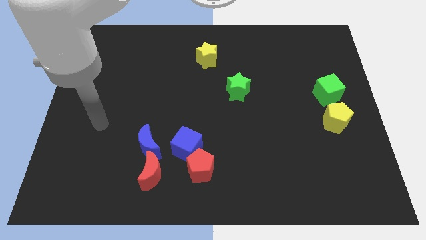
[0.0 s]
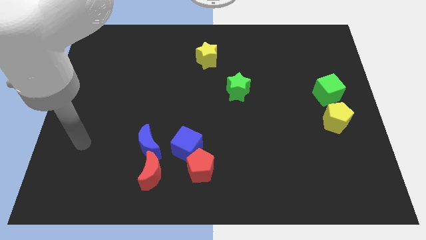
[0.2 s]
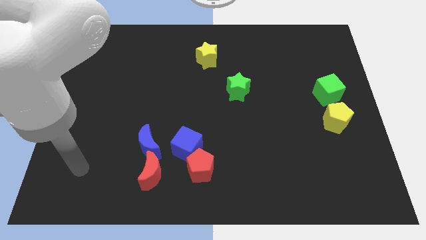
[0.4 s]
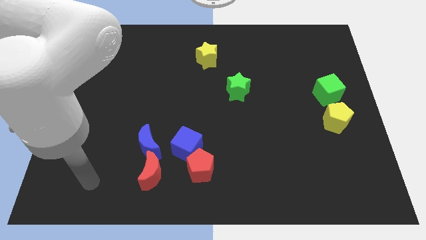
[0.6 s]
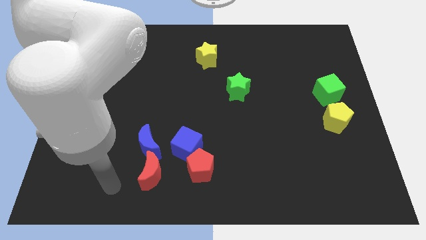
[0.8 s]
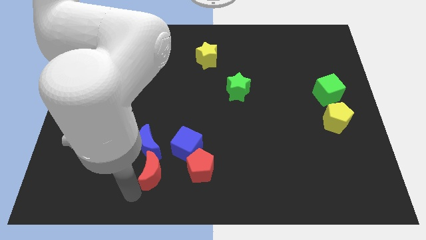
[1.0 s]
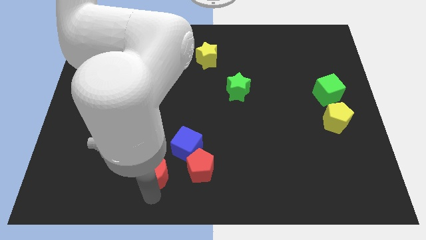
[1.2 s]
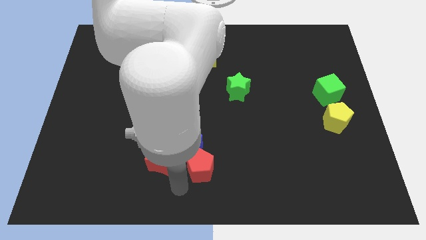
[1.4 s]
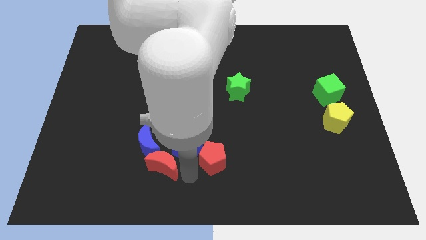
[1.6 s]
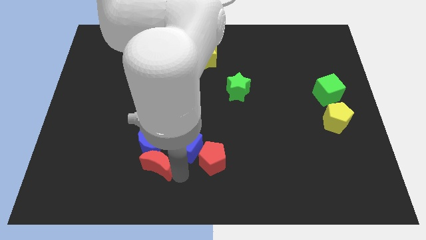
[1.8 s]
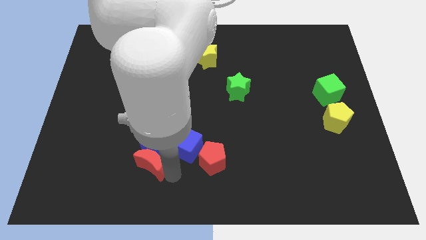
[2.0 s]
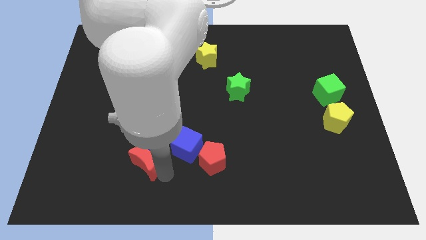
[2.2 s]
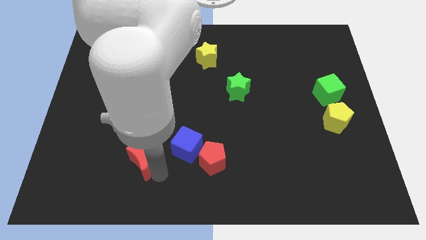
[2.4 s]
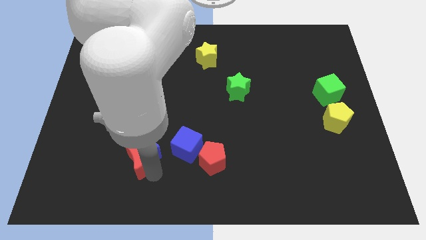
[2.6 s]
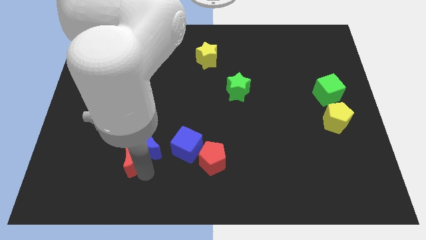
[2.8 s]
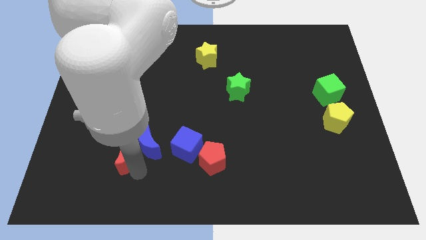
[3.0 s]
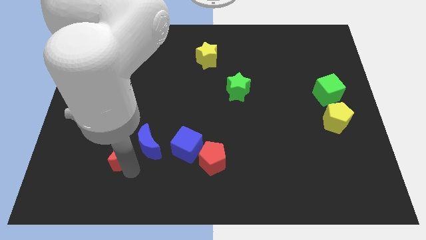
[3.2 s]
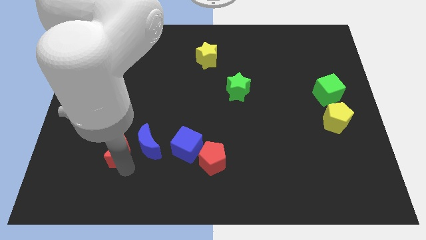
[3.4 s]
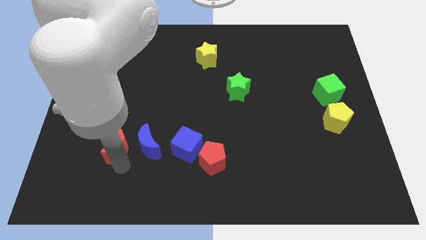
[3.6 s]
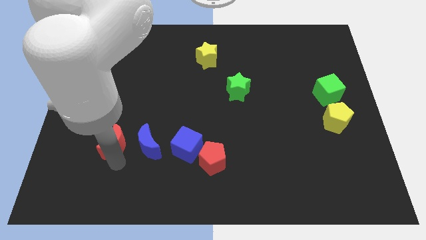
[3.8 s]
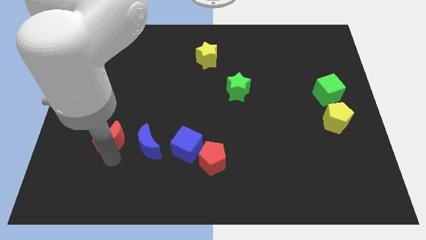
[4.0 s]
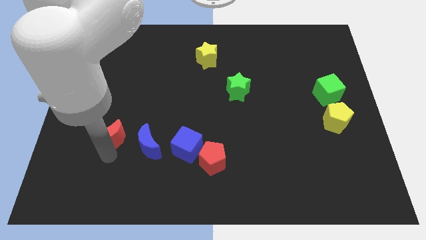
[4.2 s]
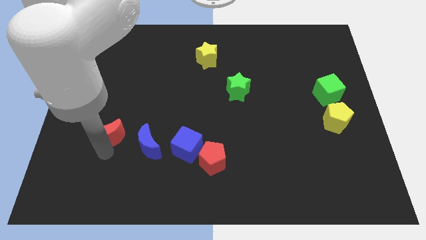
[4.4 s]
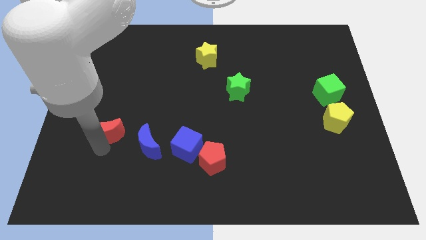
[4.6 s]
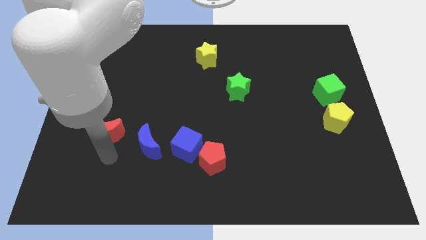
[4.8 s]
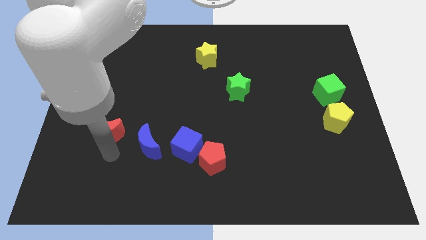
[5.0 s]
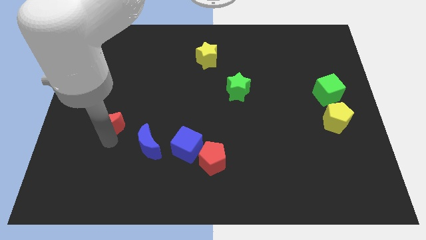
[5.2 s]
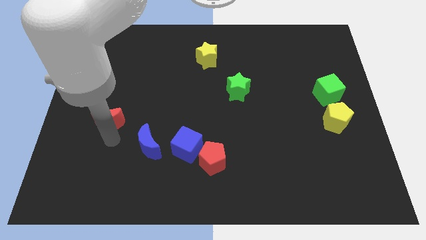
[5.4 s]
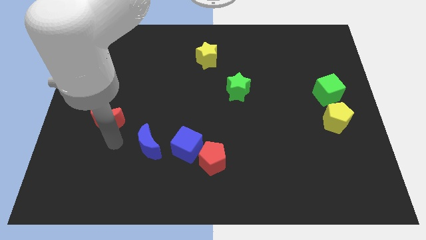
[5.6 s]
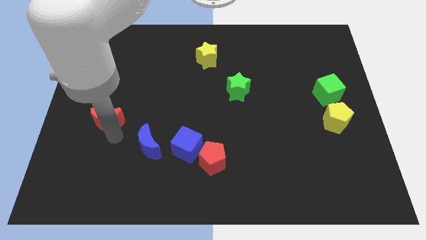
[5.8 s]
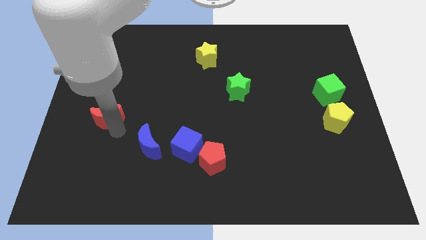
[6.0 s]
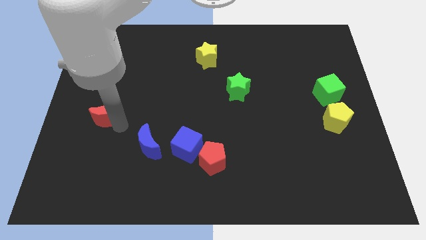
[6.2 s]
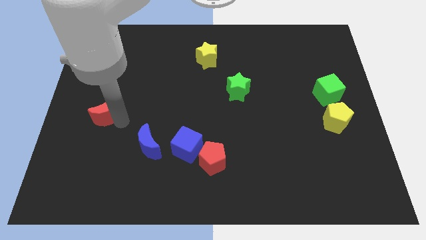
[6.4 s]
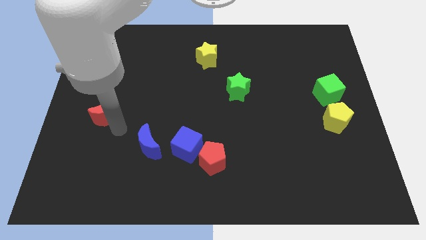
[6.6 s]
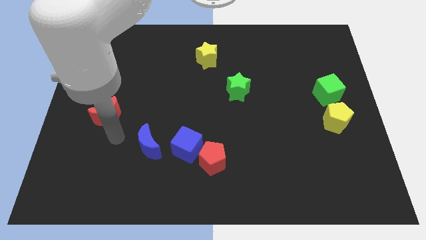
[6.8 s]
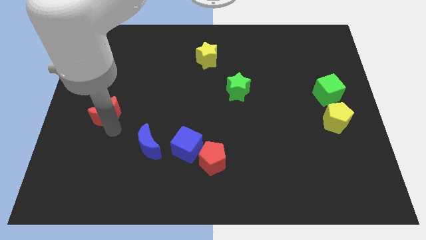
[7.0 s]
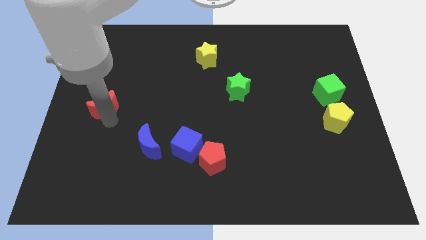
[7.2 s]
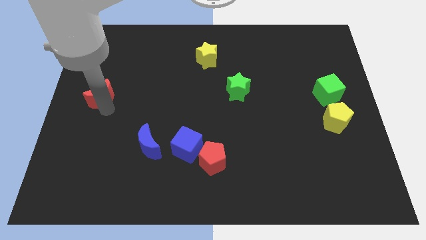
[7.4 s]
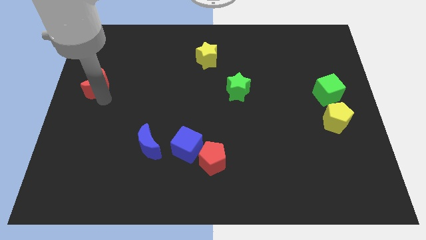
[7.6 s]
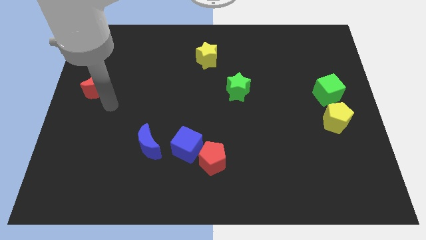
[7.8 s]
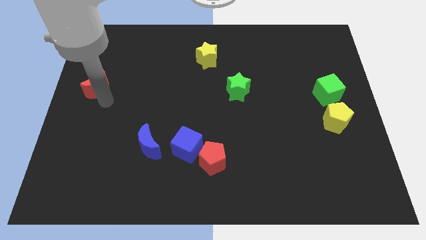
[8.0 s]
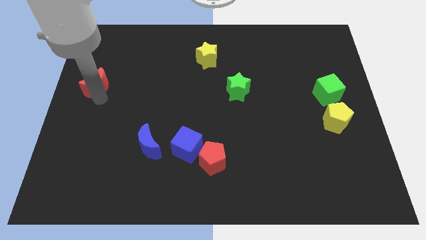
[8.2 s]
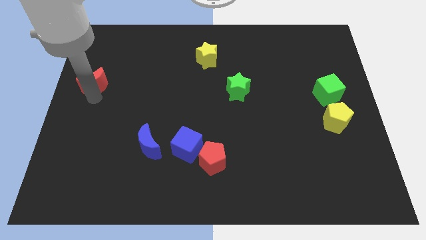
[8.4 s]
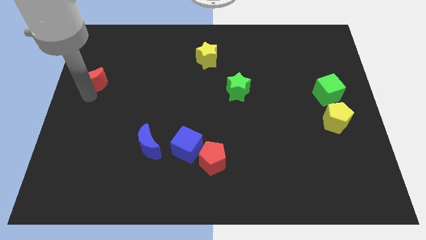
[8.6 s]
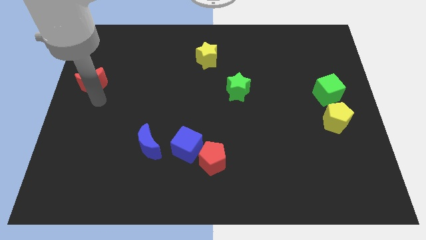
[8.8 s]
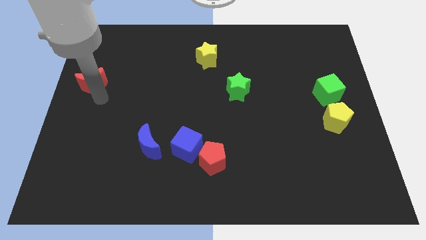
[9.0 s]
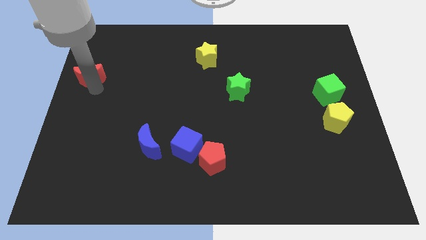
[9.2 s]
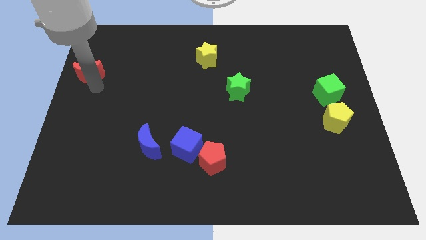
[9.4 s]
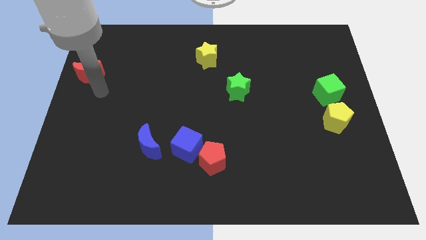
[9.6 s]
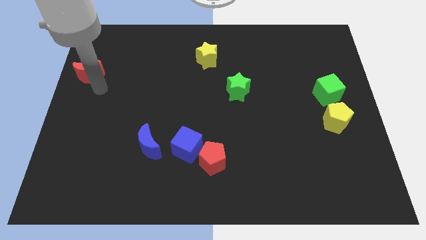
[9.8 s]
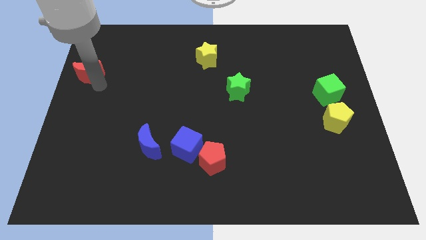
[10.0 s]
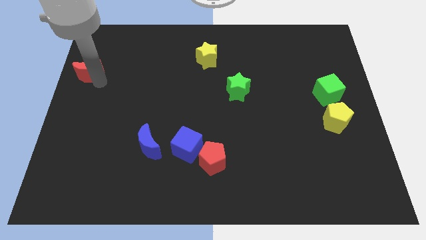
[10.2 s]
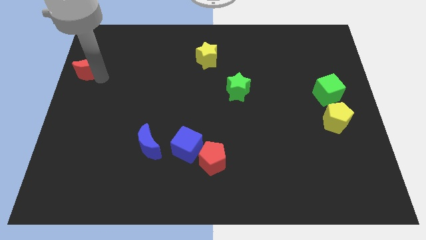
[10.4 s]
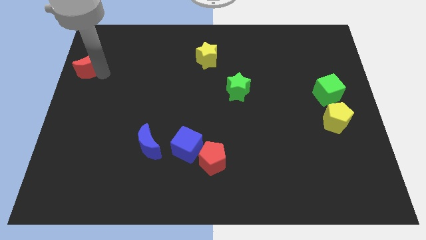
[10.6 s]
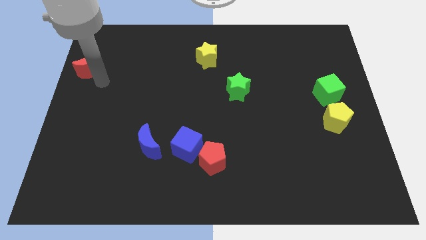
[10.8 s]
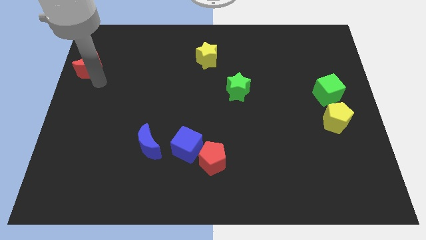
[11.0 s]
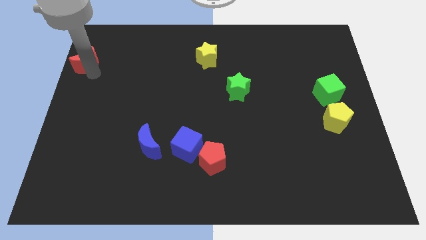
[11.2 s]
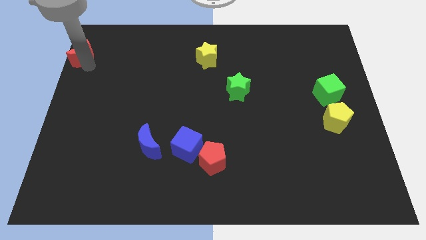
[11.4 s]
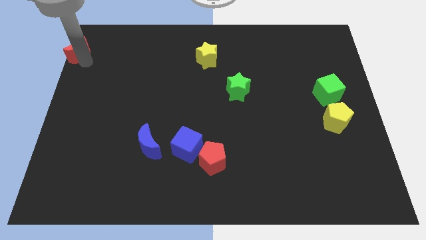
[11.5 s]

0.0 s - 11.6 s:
slide the red moon to the top left of the board

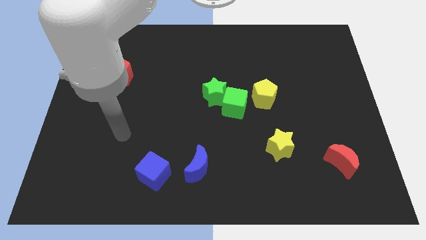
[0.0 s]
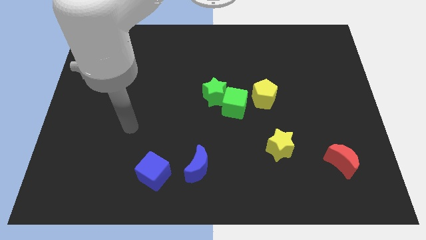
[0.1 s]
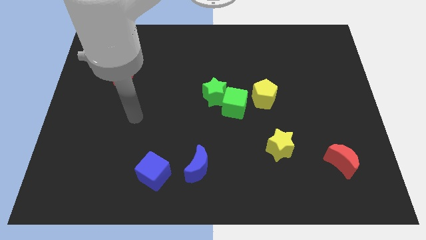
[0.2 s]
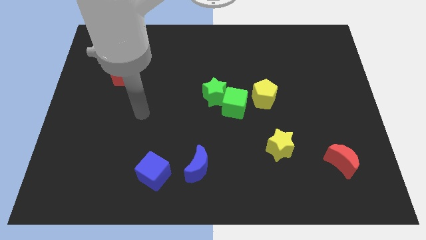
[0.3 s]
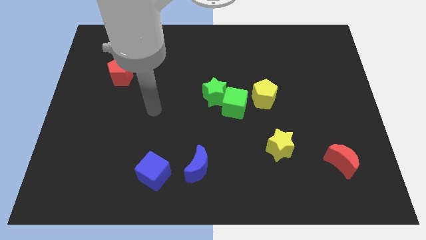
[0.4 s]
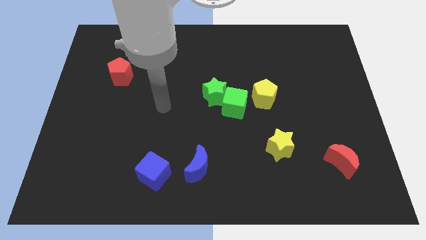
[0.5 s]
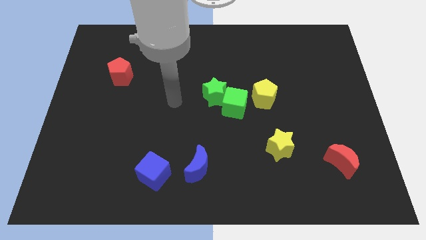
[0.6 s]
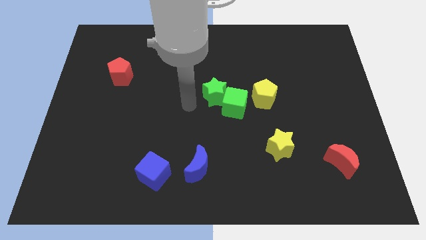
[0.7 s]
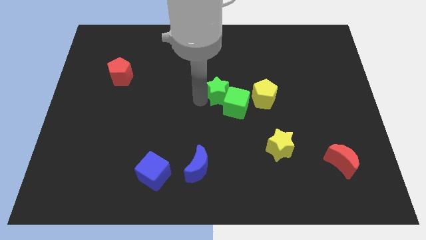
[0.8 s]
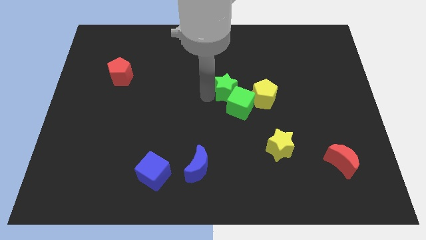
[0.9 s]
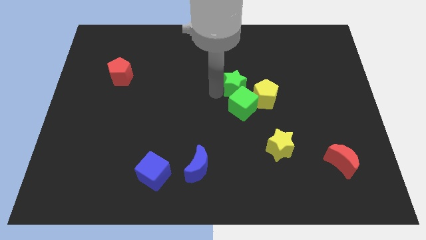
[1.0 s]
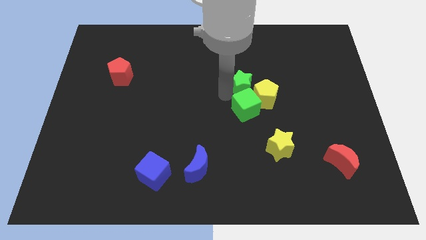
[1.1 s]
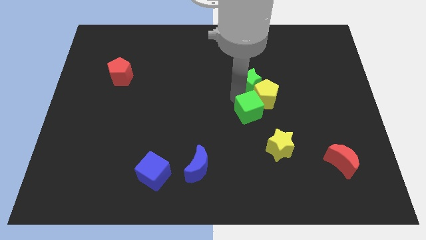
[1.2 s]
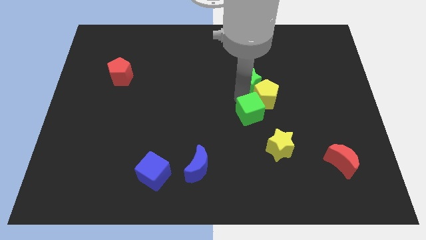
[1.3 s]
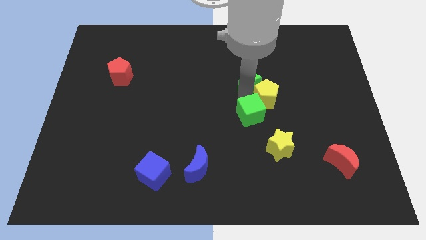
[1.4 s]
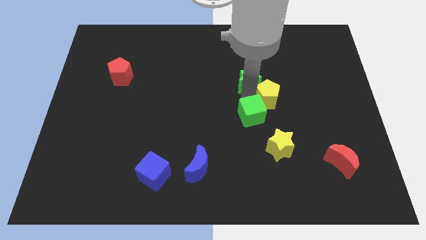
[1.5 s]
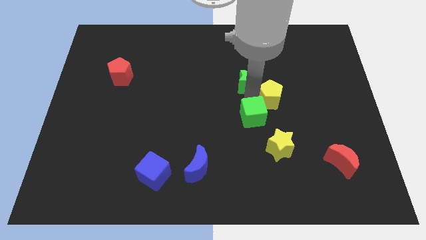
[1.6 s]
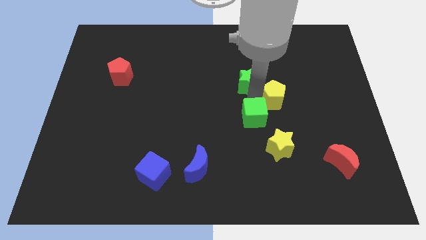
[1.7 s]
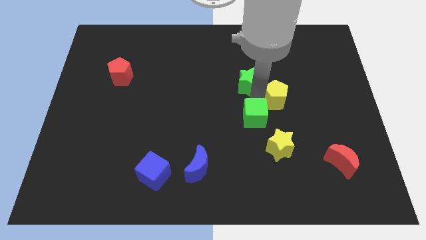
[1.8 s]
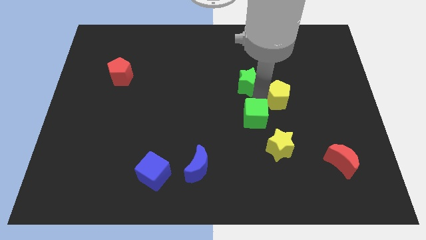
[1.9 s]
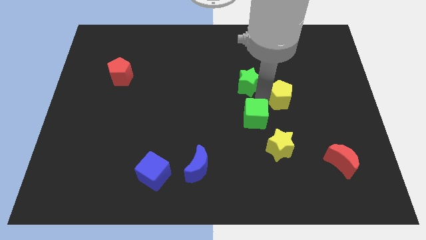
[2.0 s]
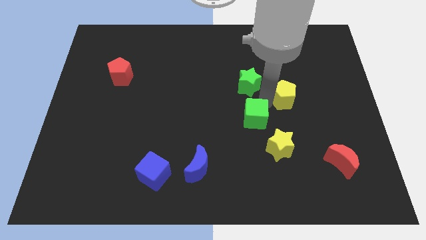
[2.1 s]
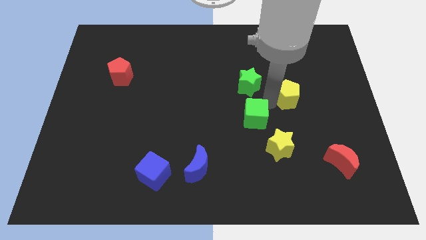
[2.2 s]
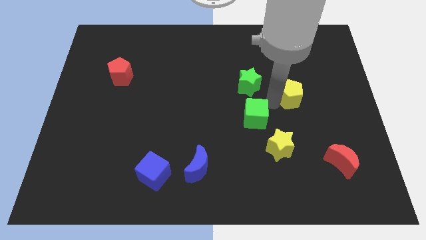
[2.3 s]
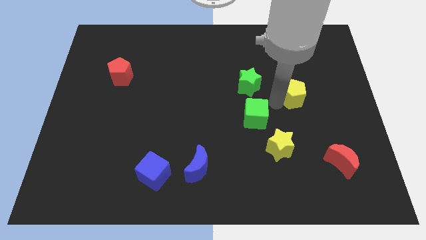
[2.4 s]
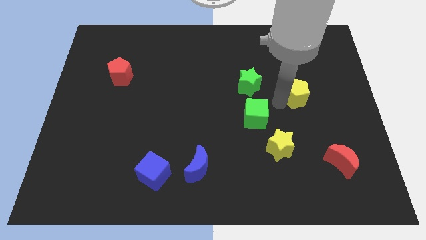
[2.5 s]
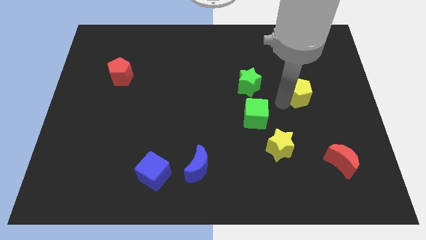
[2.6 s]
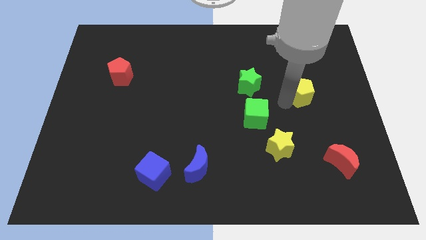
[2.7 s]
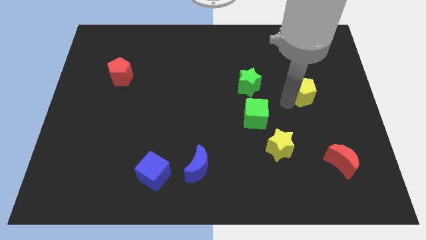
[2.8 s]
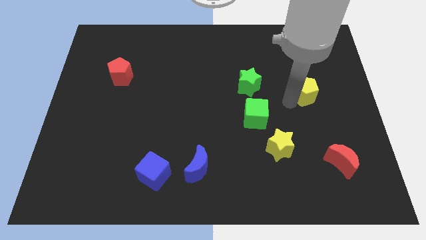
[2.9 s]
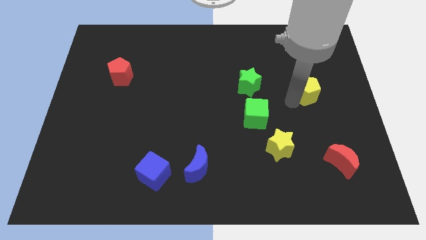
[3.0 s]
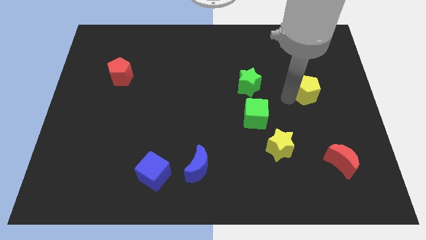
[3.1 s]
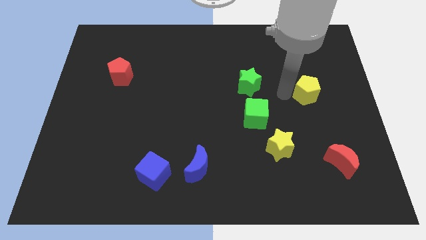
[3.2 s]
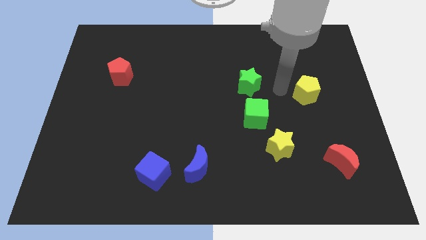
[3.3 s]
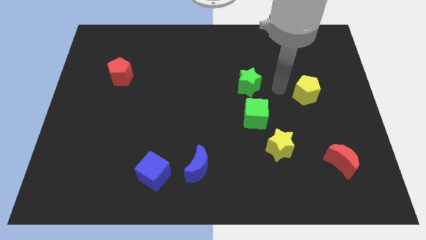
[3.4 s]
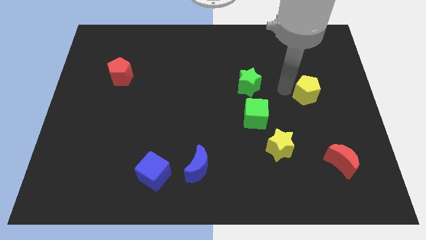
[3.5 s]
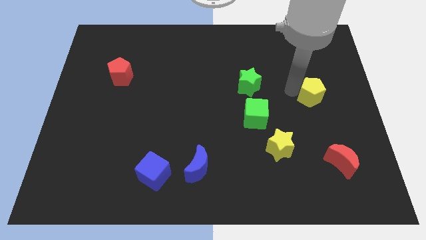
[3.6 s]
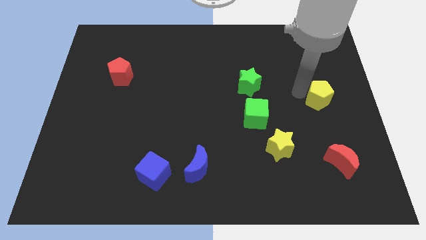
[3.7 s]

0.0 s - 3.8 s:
move the yellow pentagon to the center right
